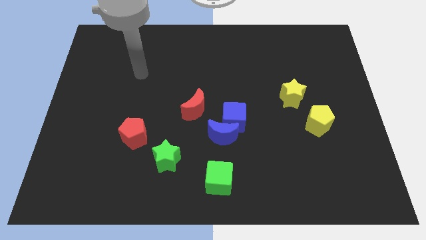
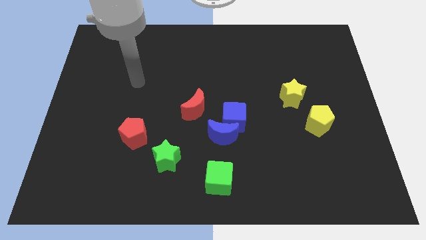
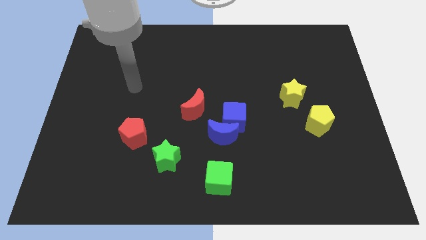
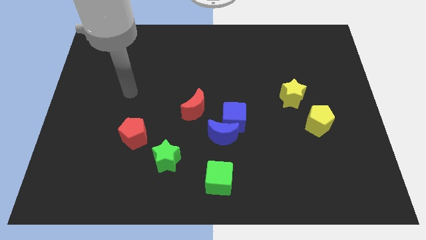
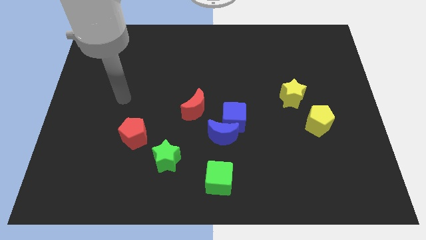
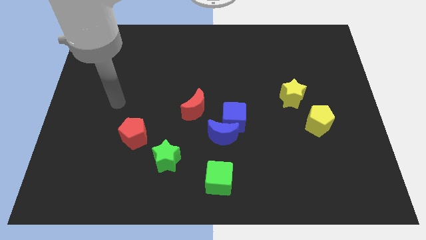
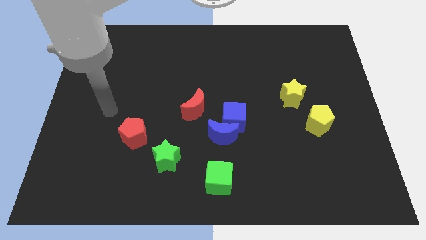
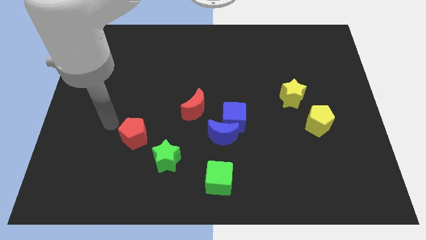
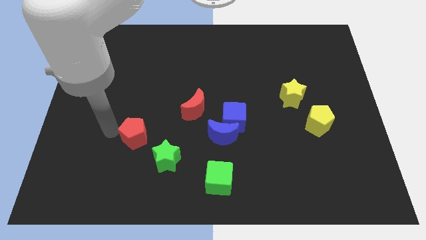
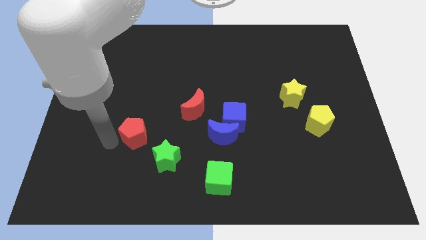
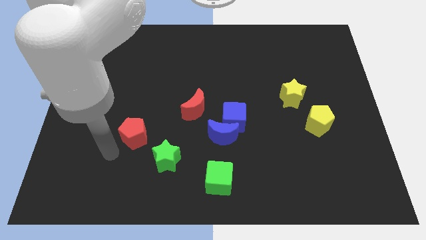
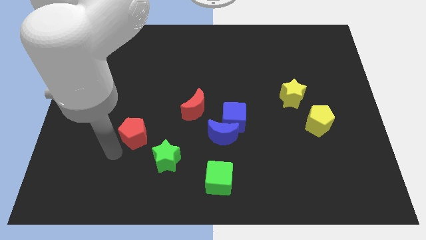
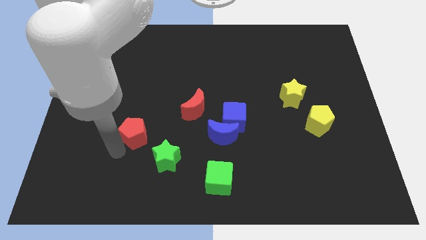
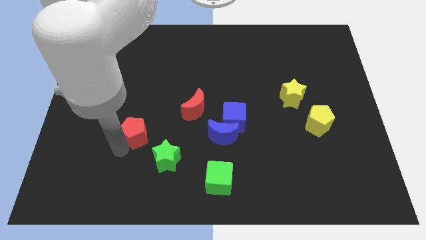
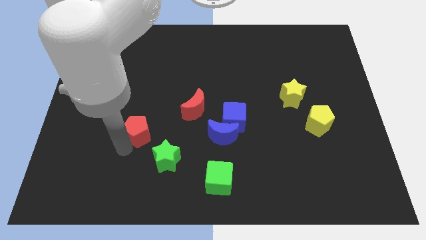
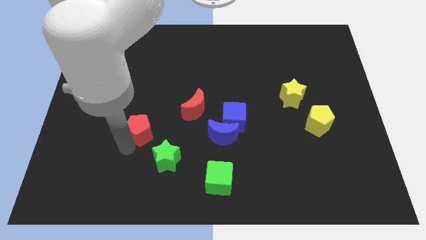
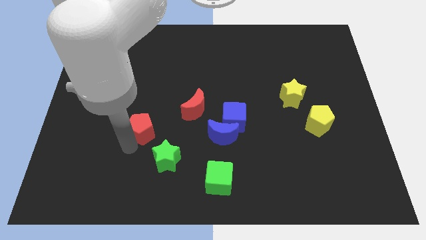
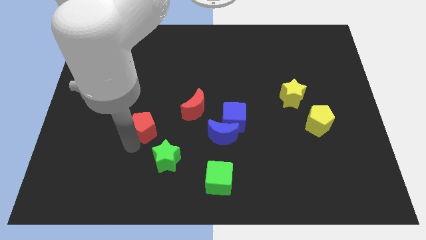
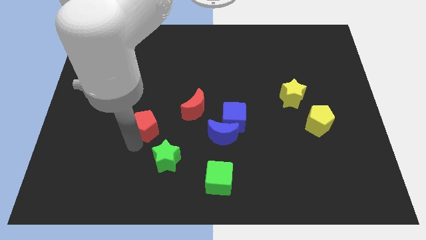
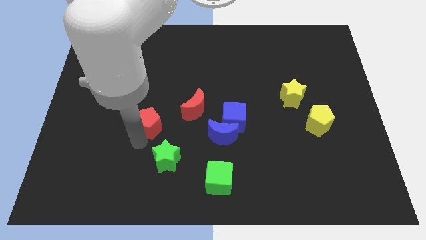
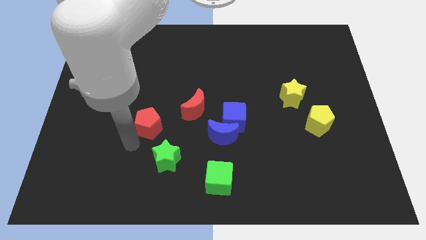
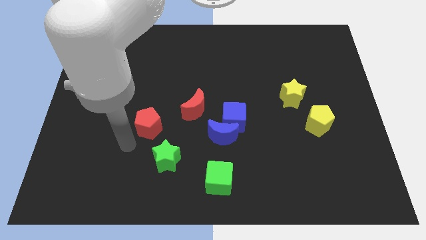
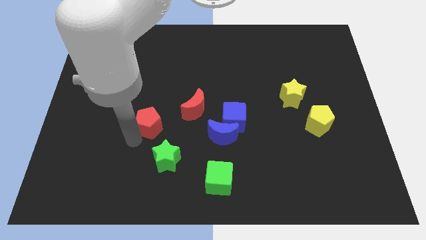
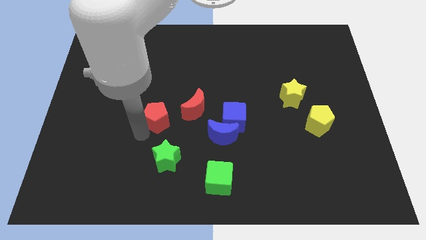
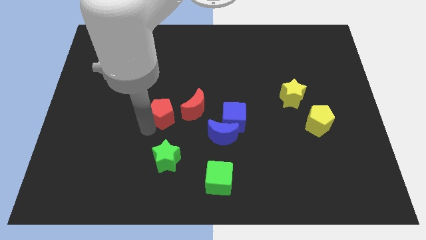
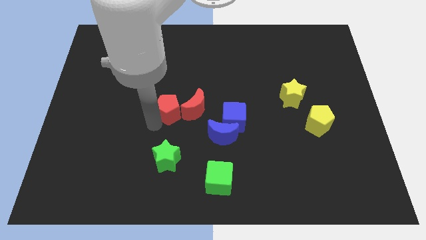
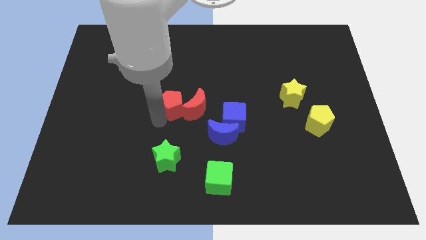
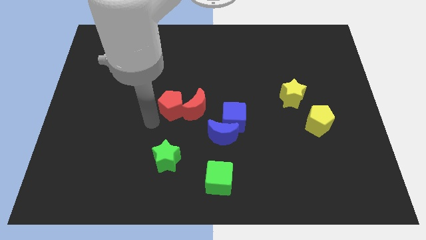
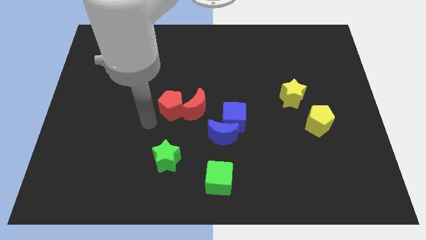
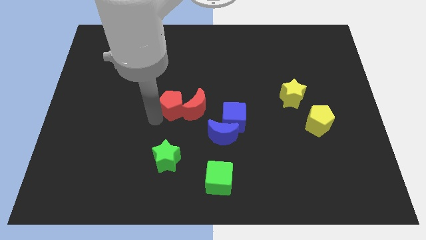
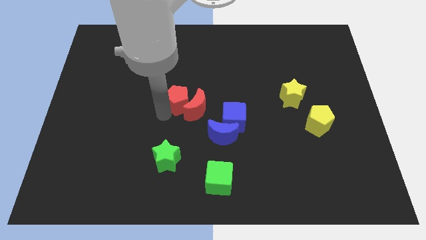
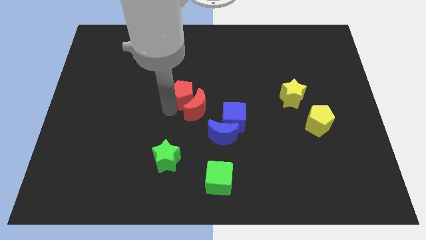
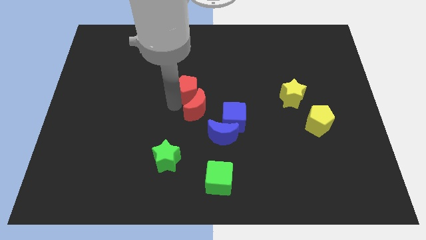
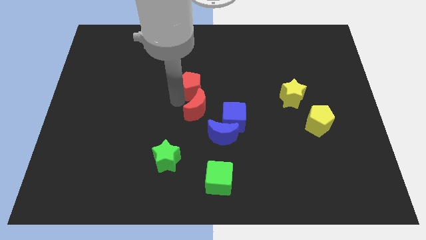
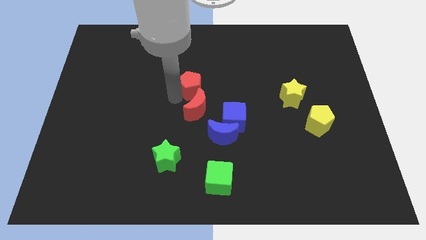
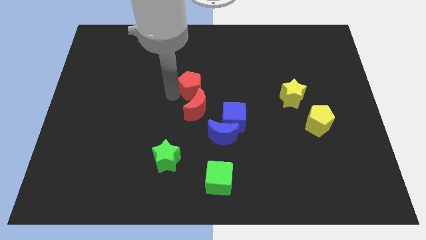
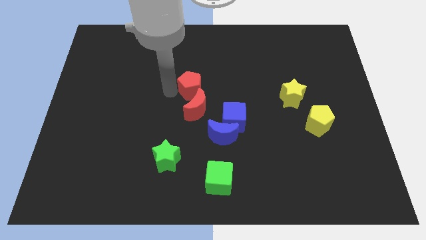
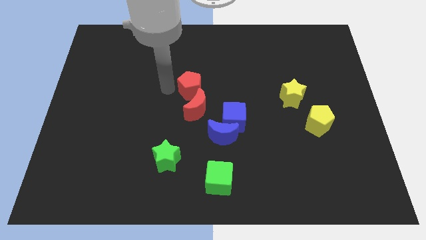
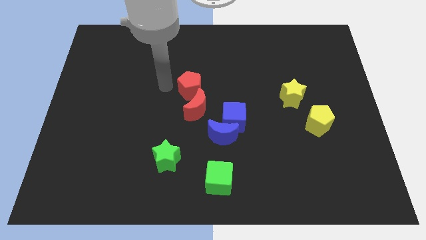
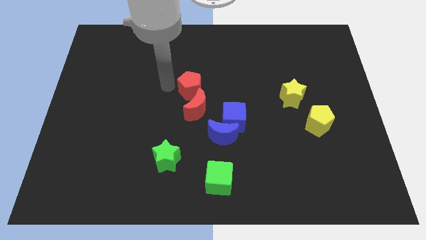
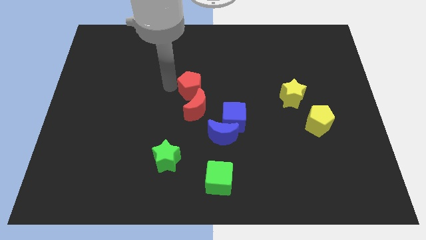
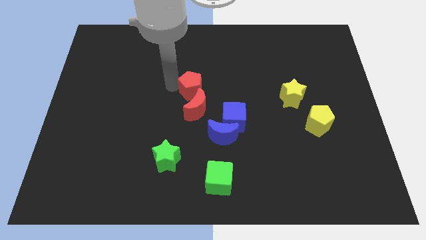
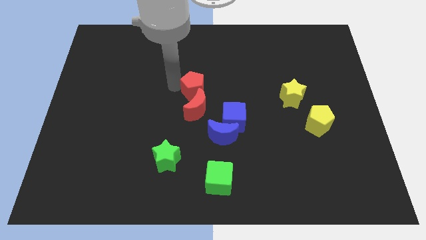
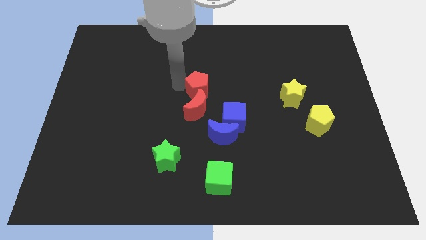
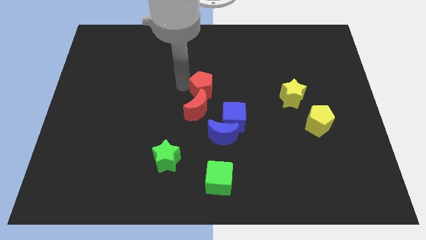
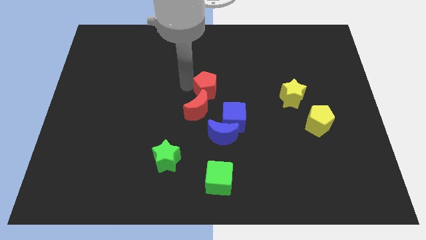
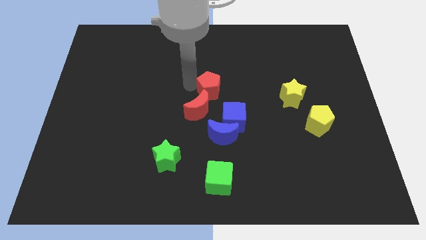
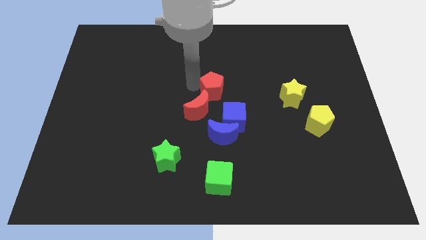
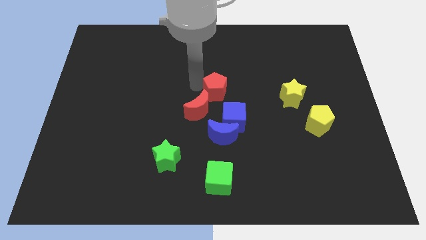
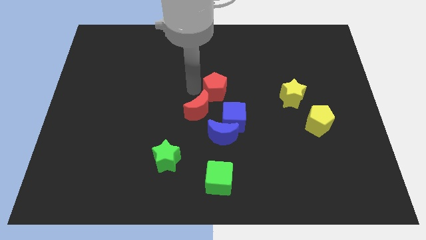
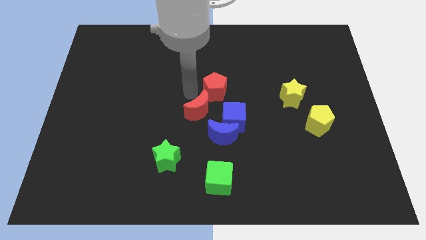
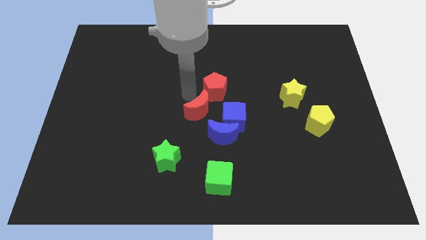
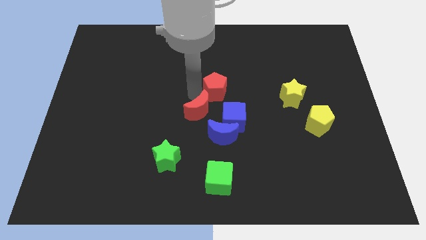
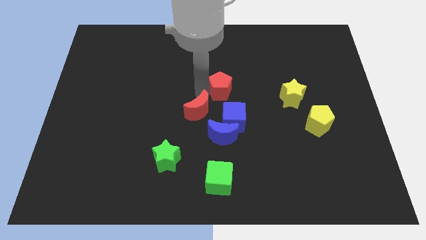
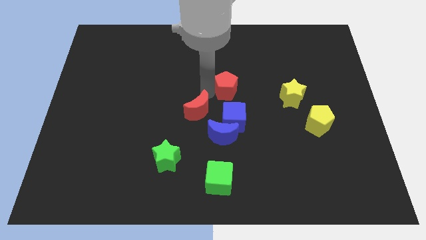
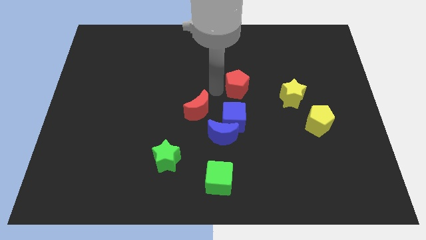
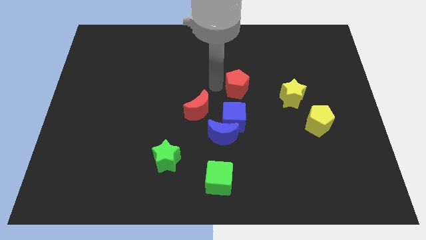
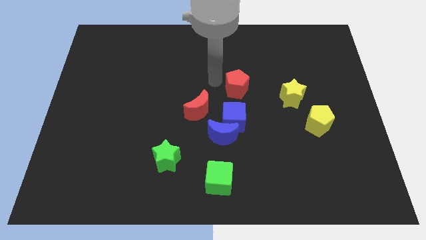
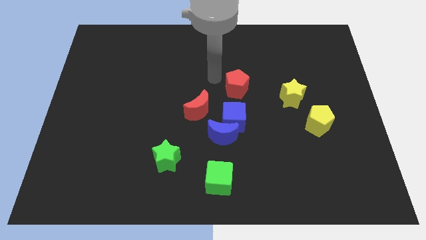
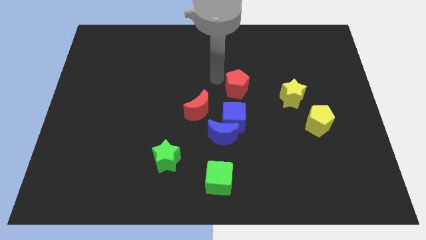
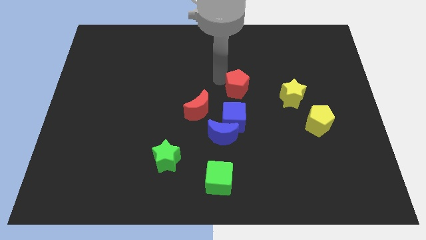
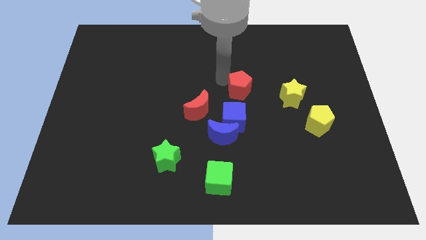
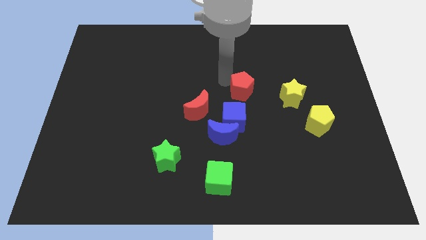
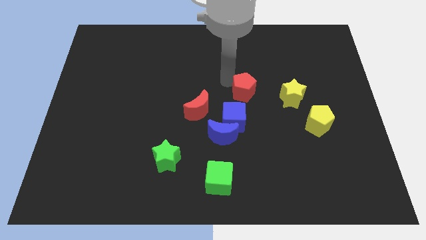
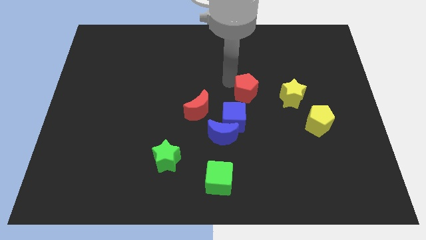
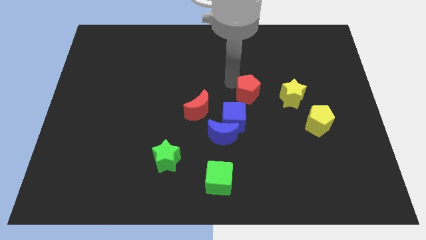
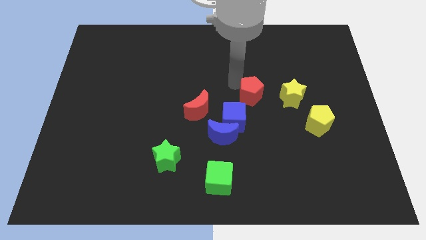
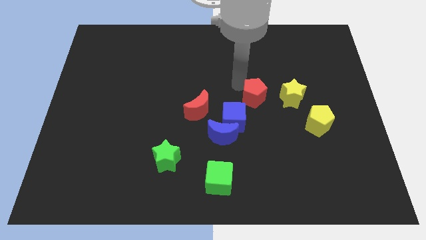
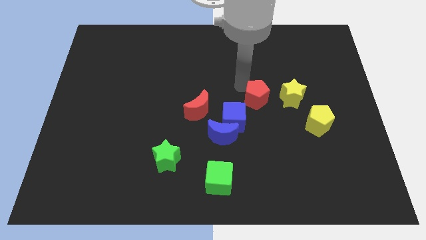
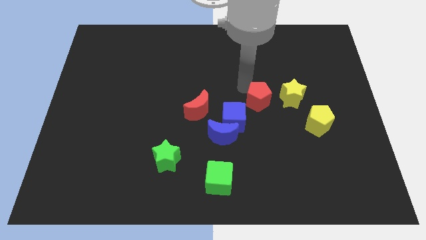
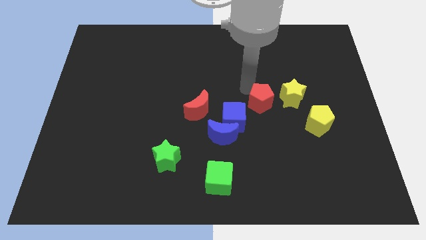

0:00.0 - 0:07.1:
move the red pentagon diagonally down and to the left of the yellow star
